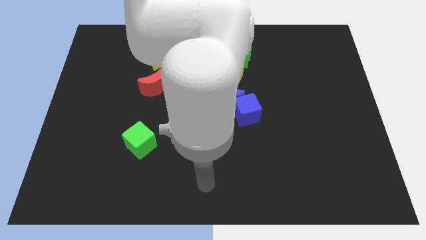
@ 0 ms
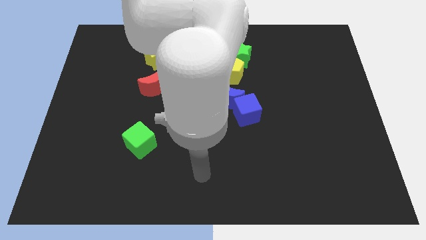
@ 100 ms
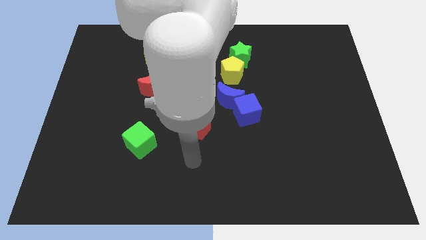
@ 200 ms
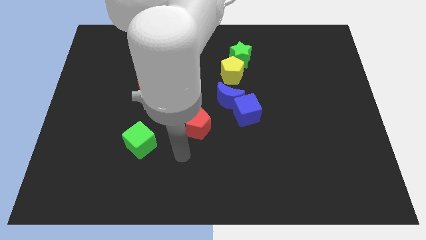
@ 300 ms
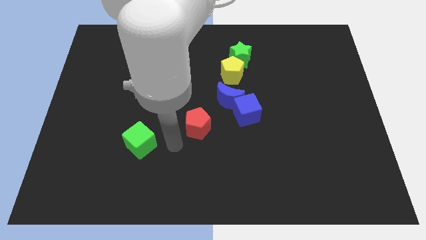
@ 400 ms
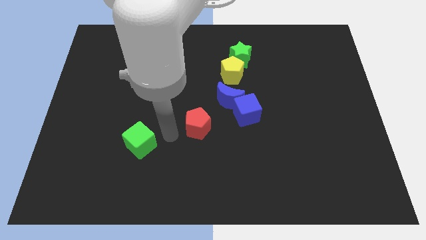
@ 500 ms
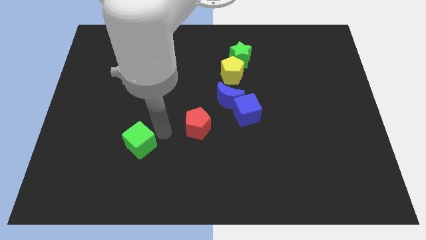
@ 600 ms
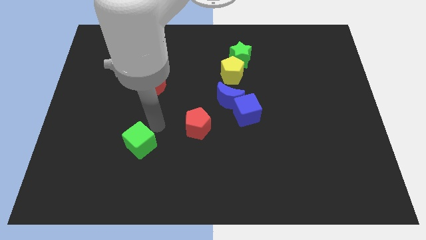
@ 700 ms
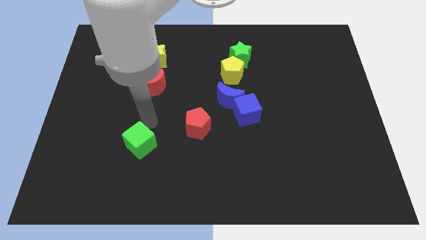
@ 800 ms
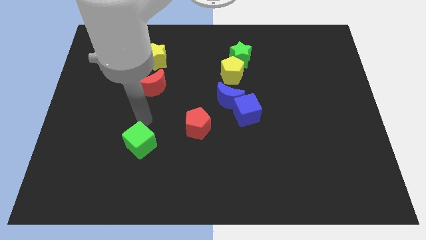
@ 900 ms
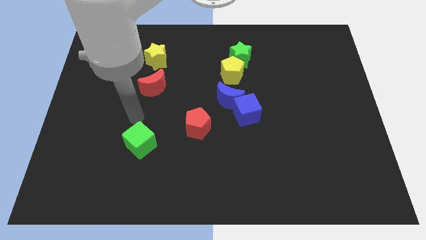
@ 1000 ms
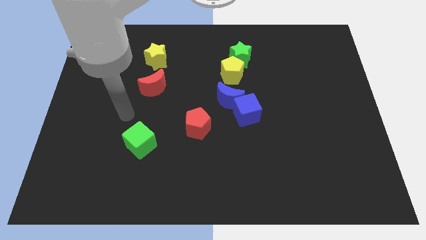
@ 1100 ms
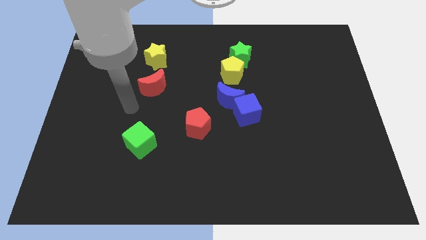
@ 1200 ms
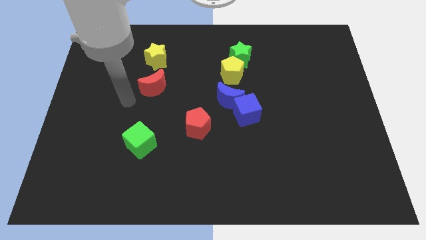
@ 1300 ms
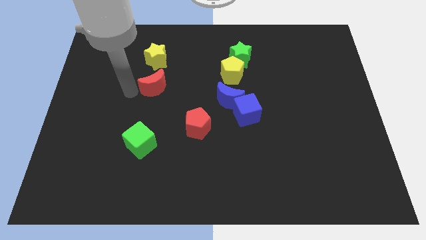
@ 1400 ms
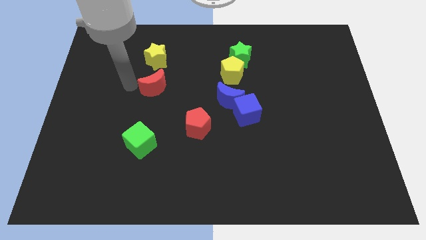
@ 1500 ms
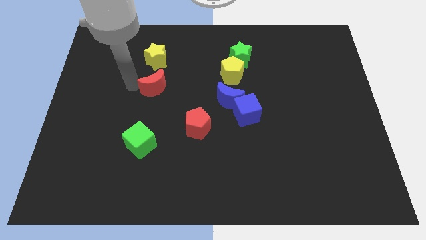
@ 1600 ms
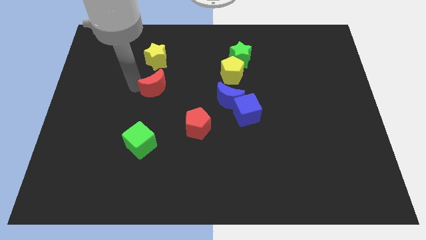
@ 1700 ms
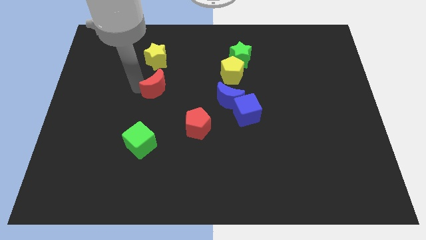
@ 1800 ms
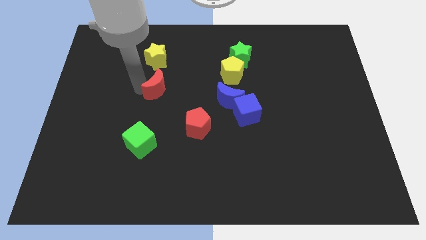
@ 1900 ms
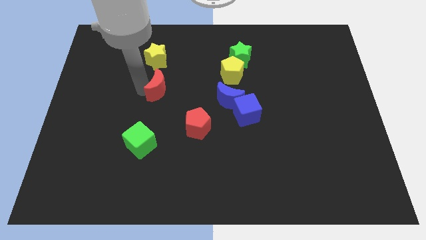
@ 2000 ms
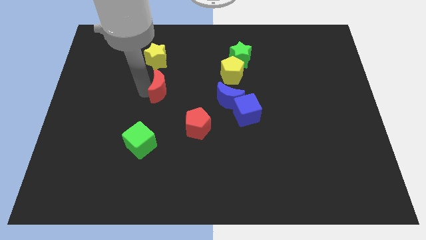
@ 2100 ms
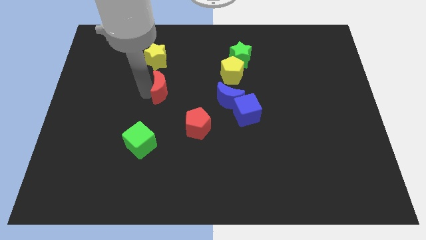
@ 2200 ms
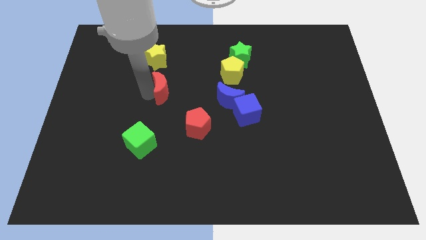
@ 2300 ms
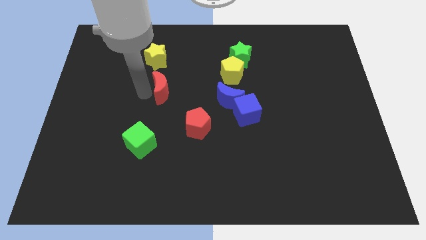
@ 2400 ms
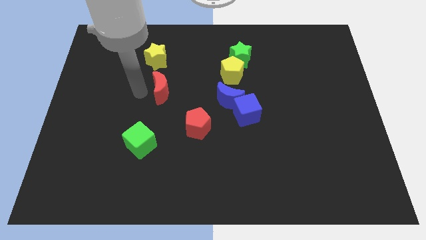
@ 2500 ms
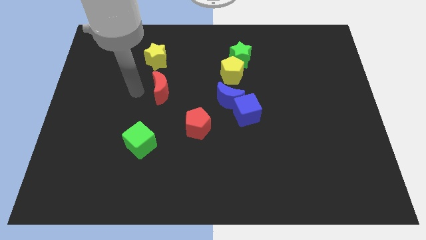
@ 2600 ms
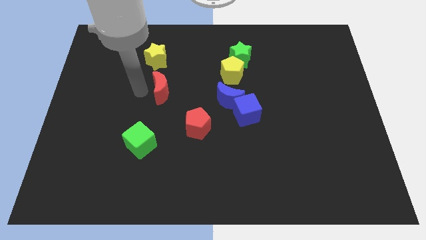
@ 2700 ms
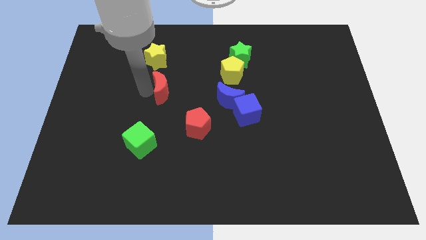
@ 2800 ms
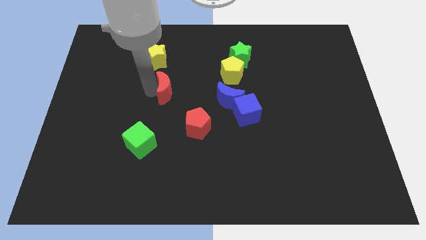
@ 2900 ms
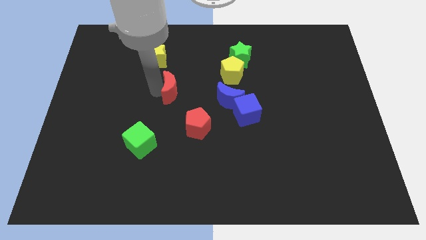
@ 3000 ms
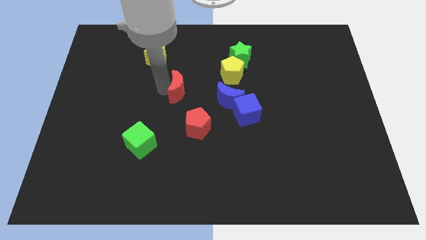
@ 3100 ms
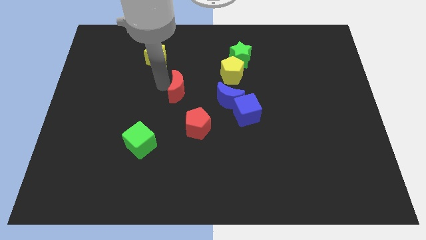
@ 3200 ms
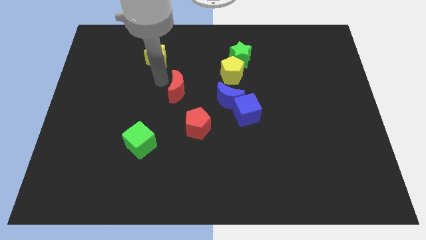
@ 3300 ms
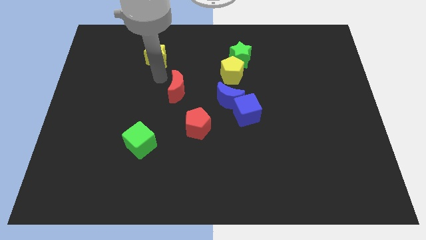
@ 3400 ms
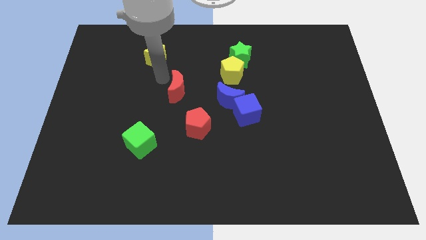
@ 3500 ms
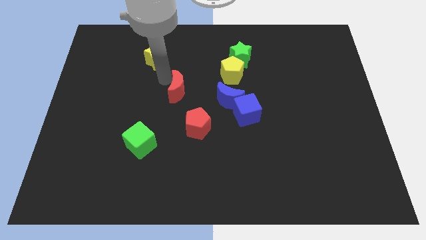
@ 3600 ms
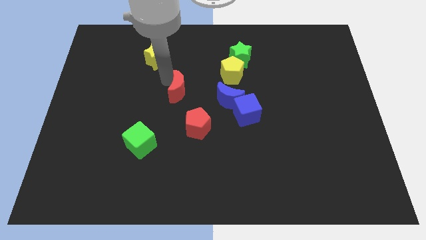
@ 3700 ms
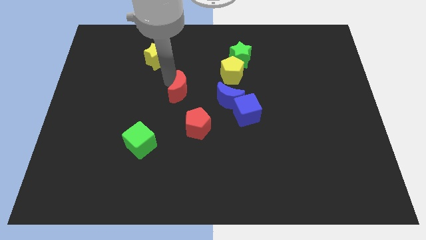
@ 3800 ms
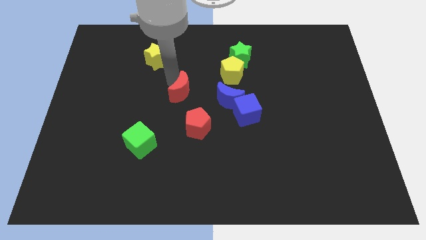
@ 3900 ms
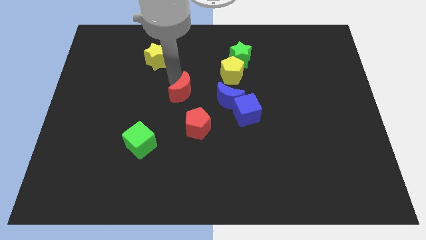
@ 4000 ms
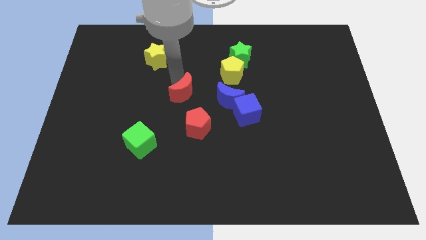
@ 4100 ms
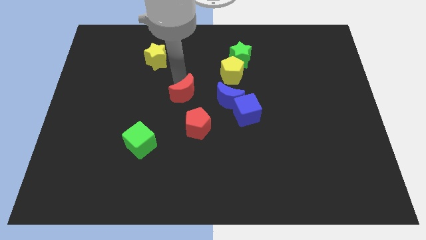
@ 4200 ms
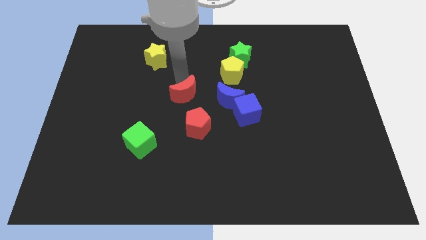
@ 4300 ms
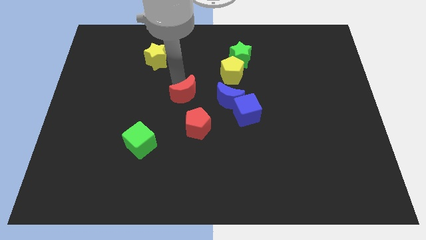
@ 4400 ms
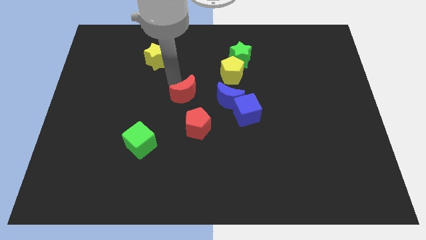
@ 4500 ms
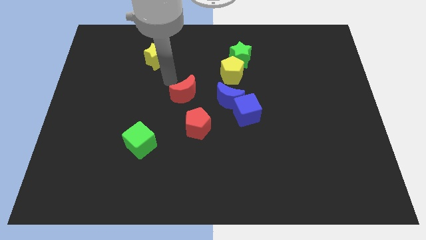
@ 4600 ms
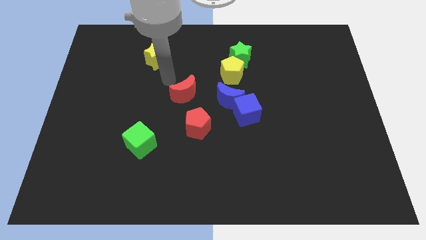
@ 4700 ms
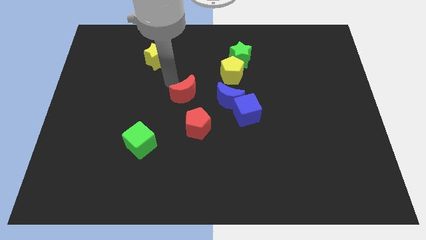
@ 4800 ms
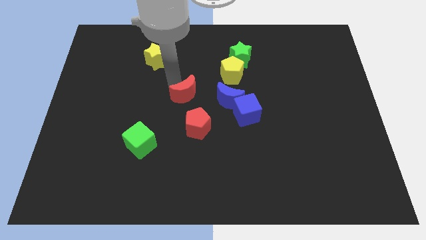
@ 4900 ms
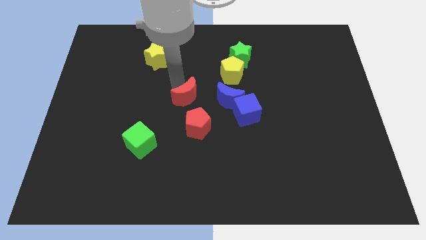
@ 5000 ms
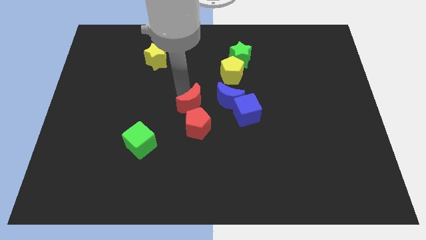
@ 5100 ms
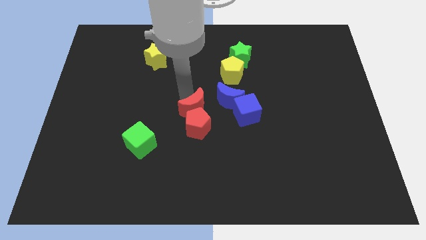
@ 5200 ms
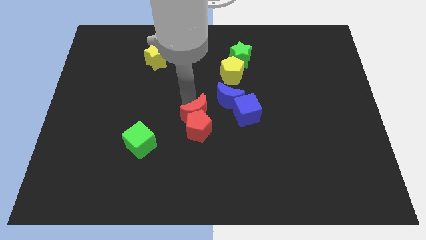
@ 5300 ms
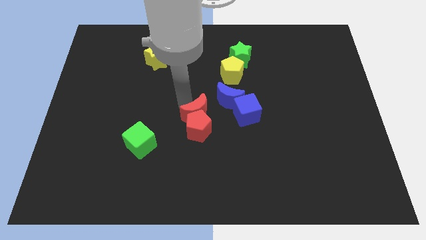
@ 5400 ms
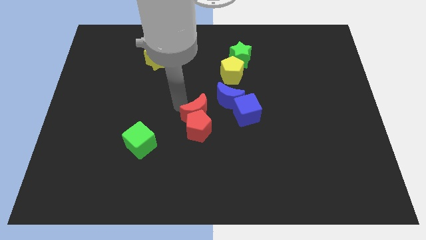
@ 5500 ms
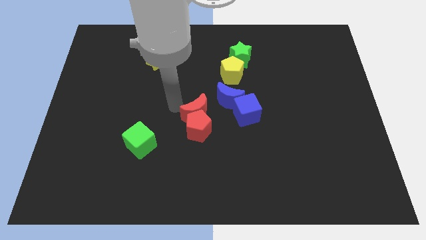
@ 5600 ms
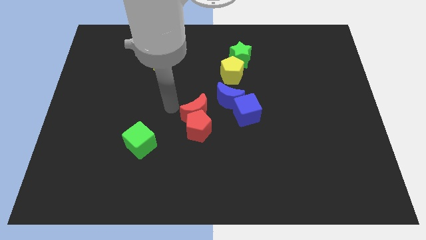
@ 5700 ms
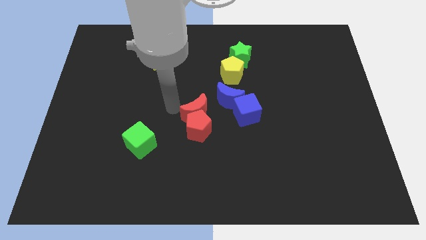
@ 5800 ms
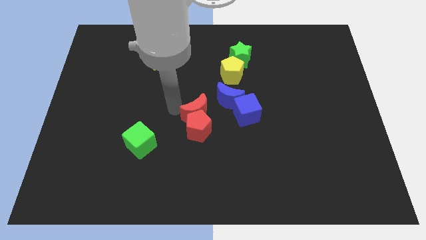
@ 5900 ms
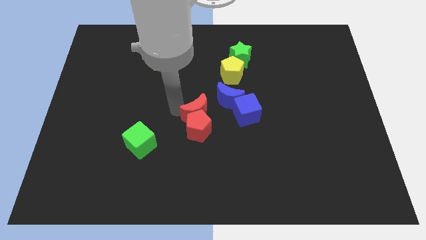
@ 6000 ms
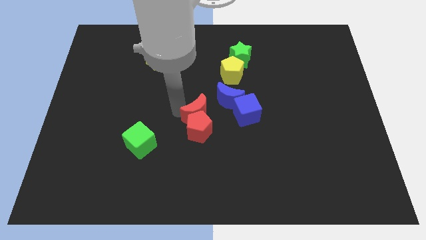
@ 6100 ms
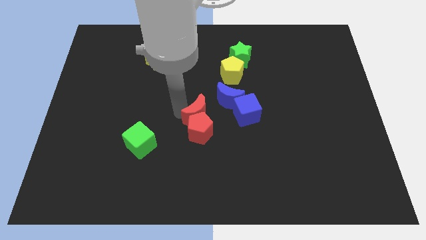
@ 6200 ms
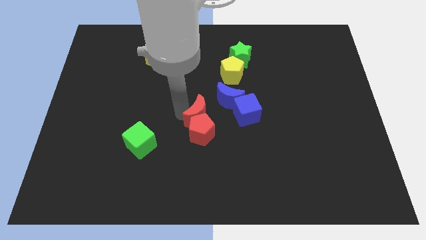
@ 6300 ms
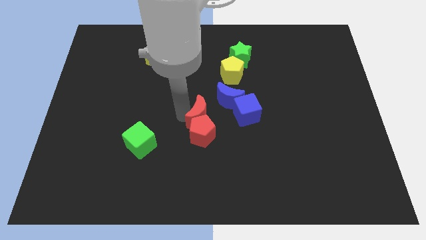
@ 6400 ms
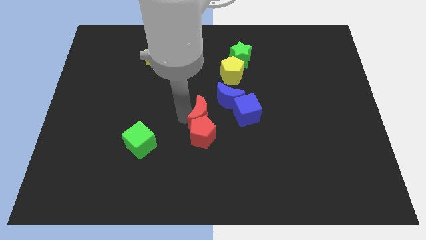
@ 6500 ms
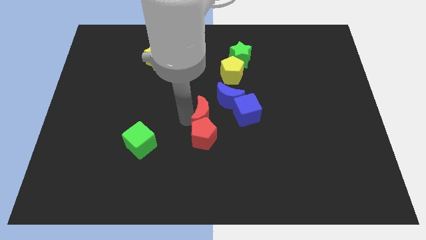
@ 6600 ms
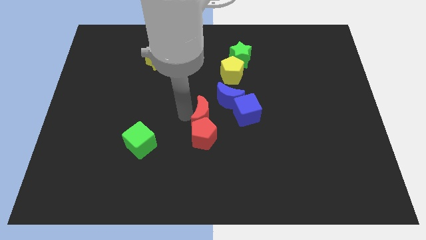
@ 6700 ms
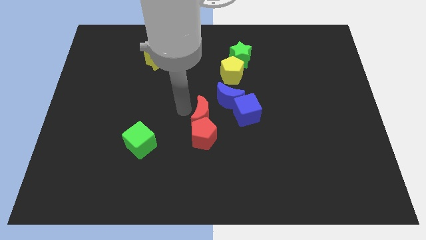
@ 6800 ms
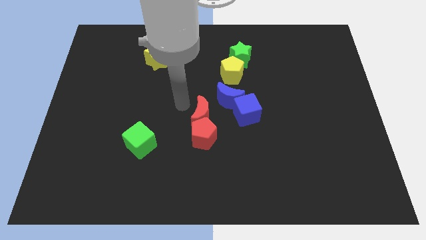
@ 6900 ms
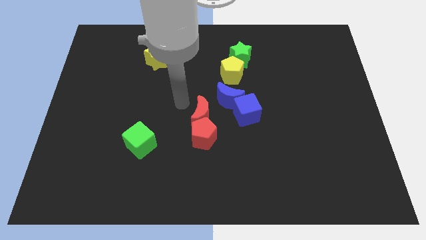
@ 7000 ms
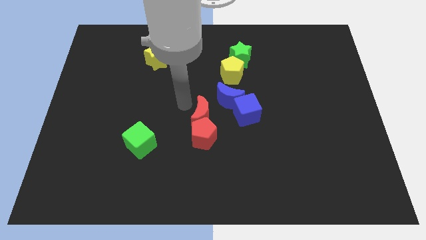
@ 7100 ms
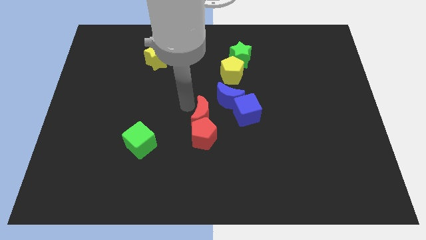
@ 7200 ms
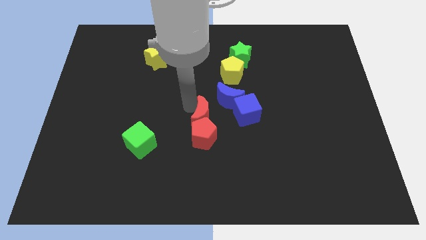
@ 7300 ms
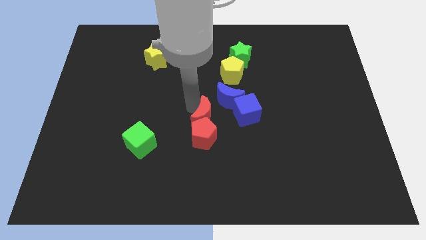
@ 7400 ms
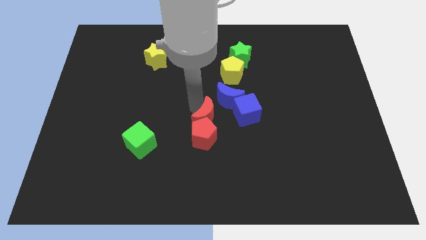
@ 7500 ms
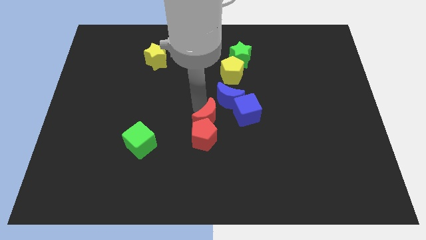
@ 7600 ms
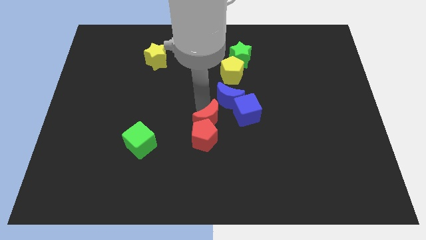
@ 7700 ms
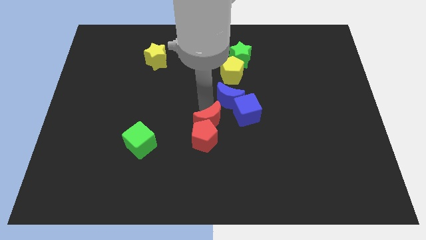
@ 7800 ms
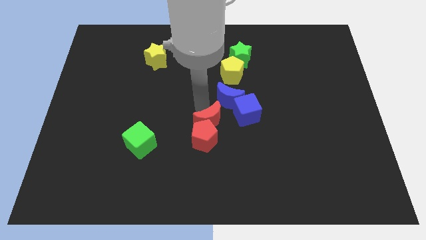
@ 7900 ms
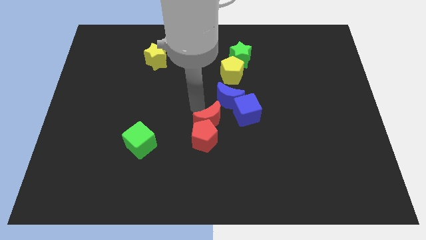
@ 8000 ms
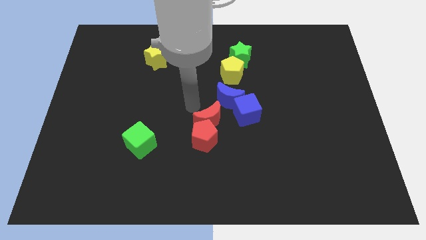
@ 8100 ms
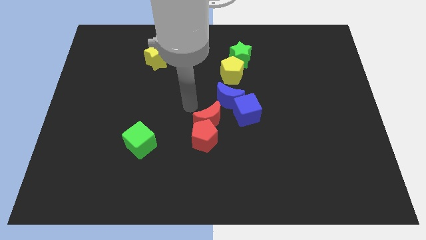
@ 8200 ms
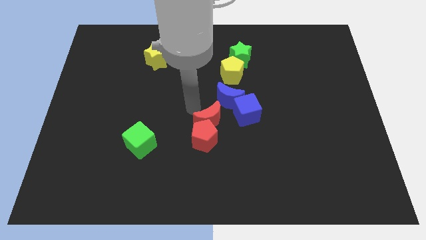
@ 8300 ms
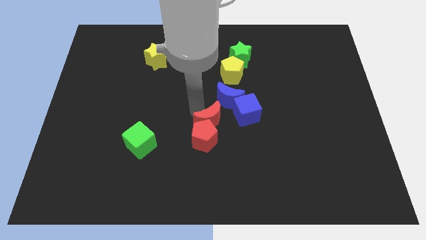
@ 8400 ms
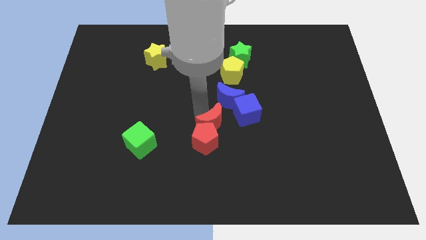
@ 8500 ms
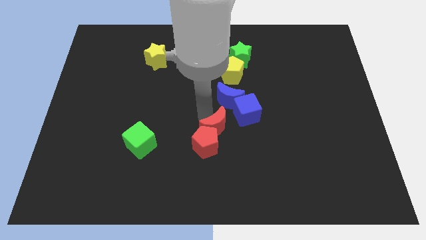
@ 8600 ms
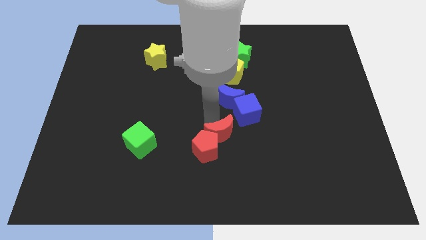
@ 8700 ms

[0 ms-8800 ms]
slide the red moon diagonally down and to the right
